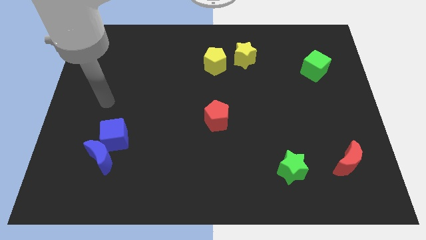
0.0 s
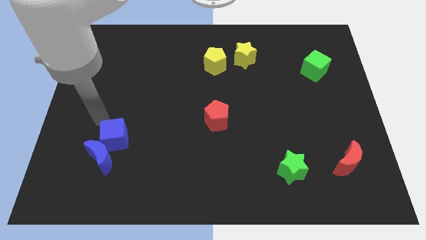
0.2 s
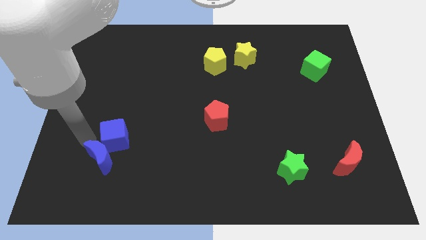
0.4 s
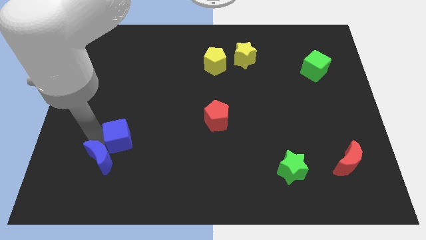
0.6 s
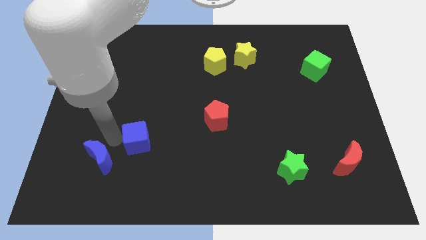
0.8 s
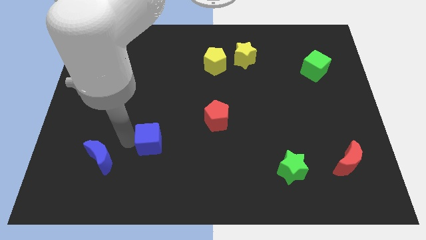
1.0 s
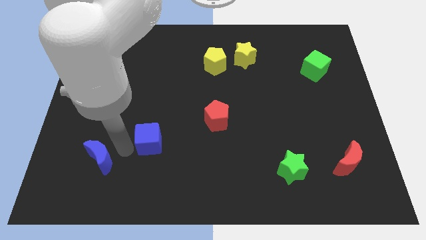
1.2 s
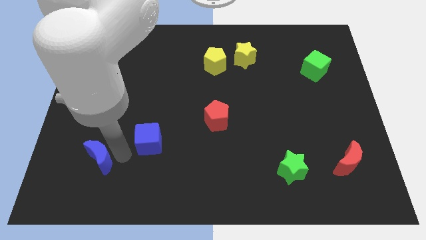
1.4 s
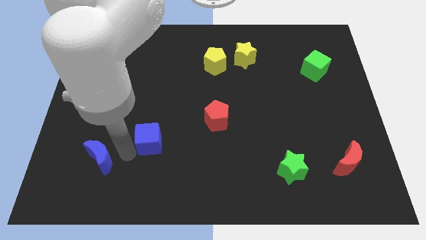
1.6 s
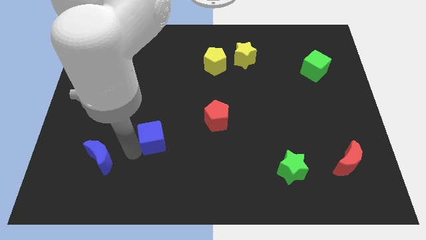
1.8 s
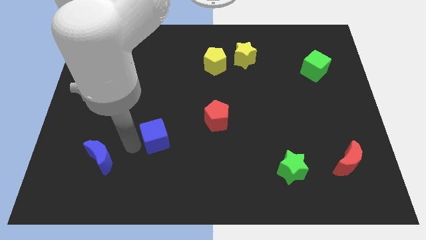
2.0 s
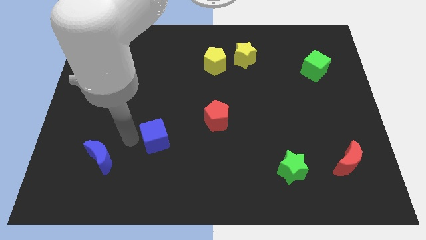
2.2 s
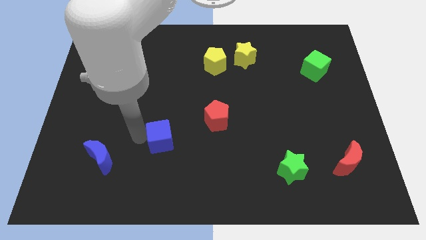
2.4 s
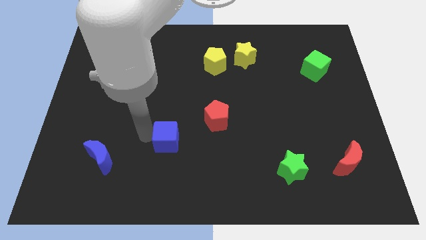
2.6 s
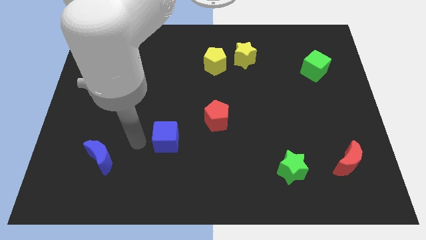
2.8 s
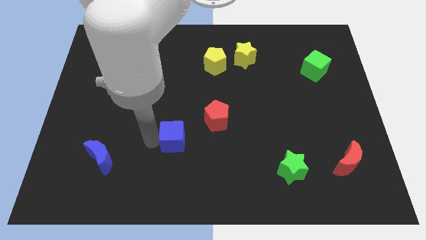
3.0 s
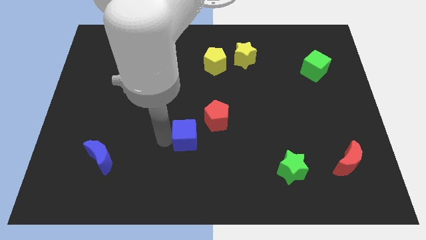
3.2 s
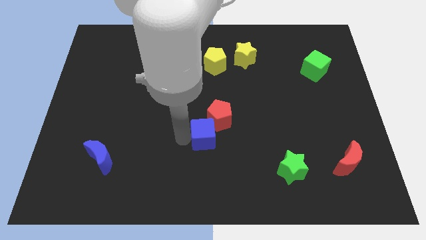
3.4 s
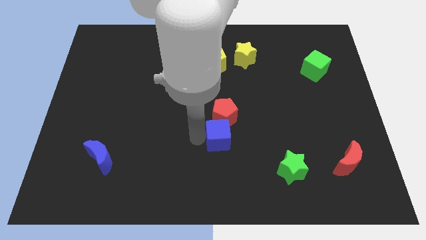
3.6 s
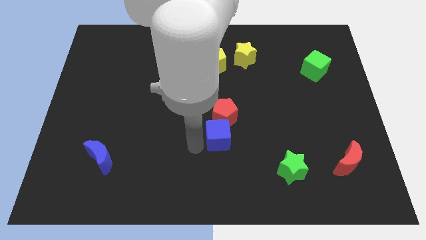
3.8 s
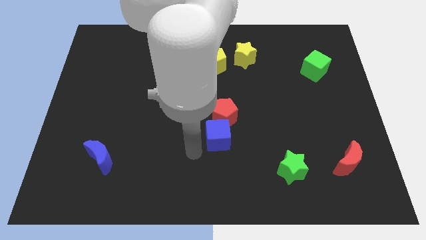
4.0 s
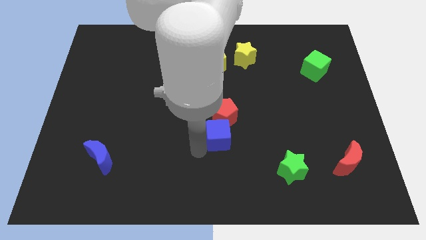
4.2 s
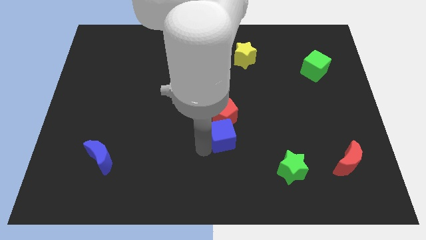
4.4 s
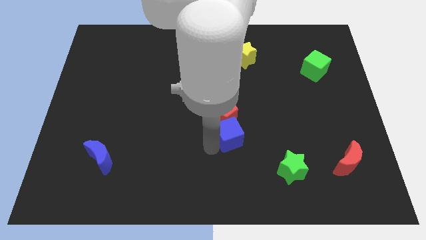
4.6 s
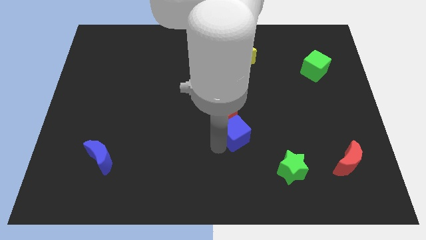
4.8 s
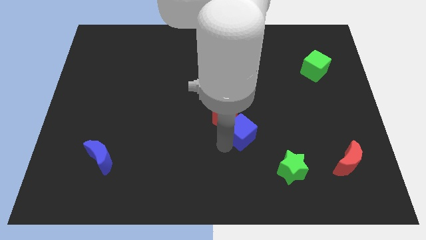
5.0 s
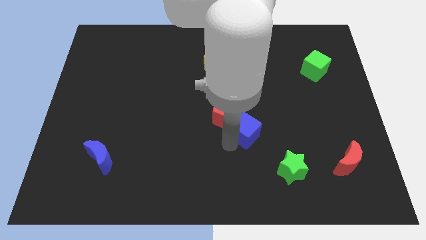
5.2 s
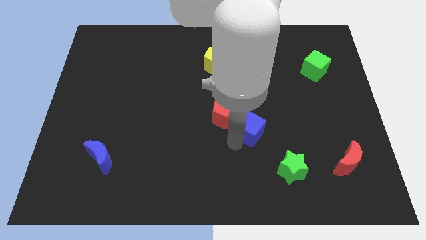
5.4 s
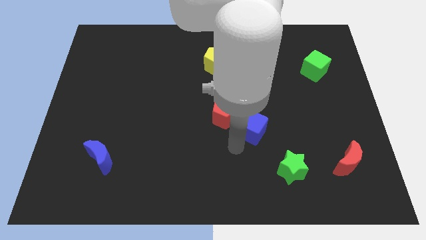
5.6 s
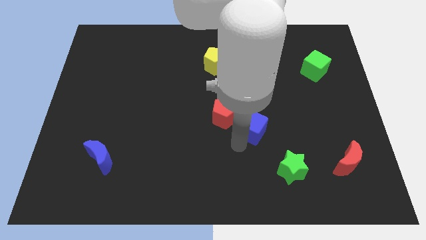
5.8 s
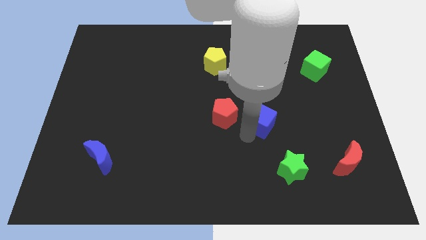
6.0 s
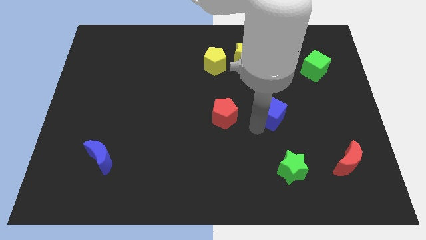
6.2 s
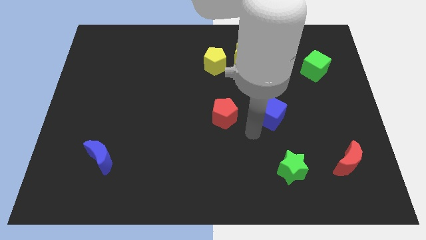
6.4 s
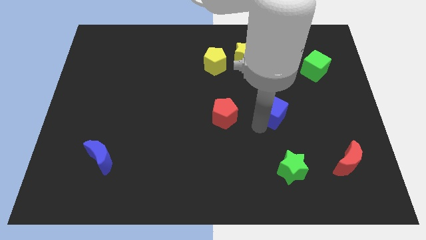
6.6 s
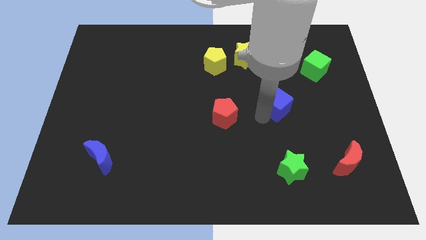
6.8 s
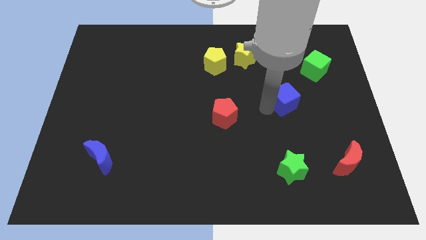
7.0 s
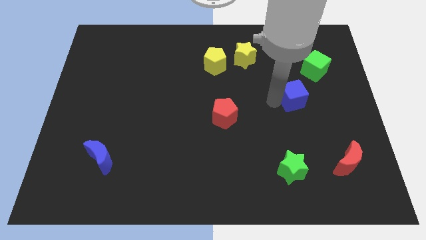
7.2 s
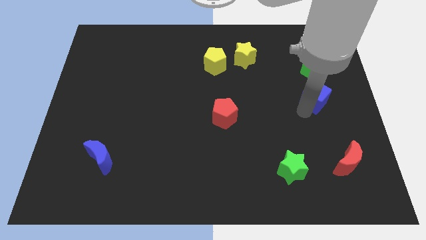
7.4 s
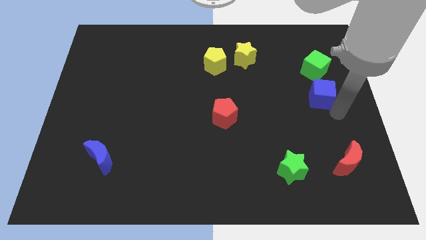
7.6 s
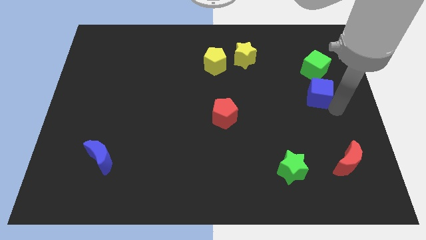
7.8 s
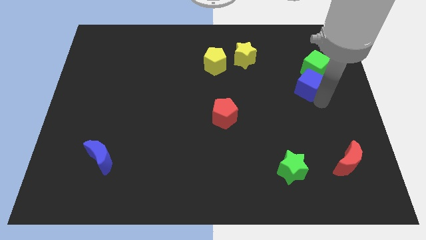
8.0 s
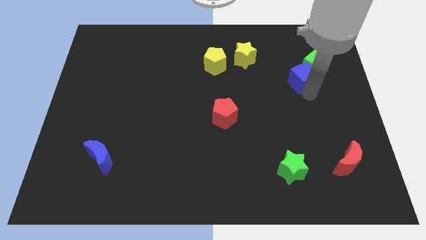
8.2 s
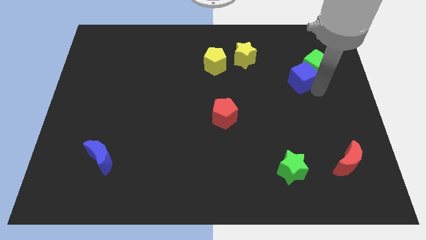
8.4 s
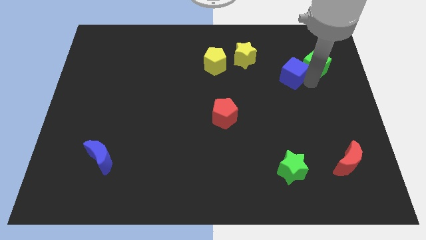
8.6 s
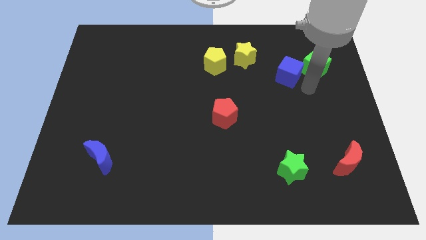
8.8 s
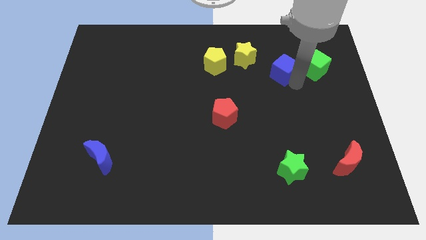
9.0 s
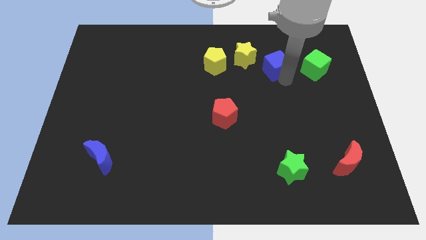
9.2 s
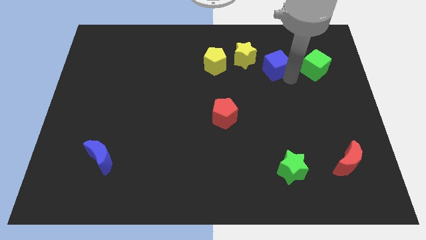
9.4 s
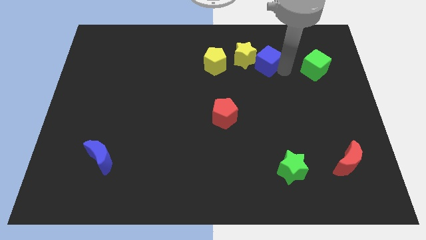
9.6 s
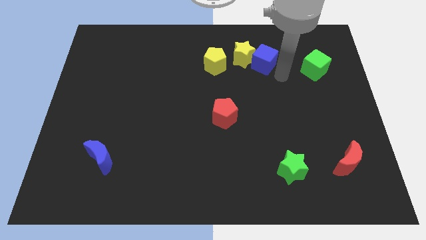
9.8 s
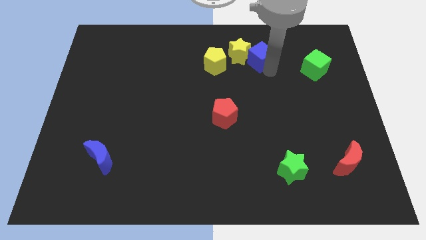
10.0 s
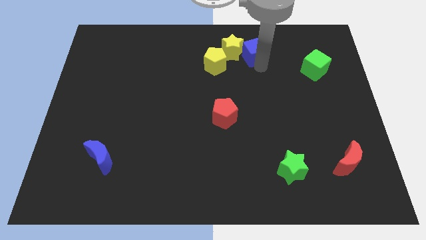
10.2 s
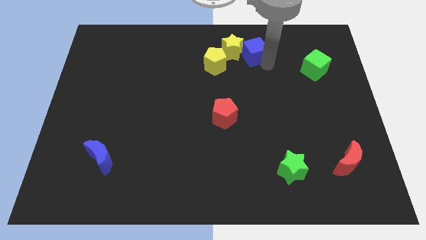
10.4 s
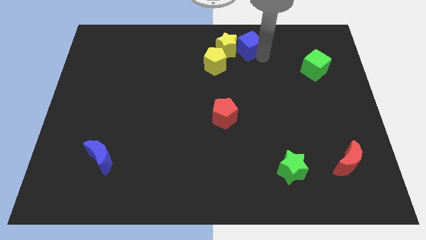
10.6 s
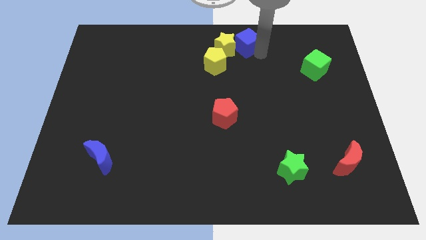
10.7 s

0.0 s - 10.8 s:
push the blue cube to the top
